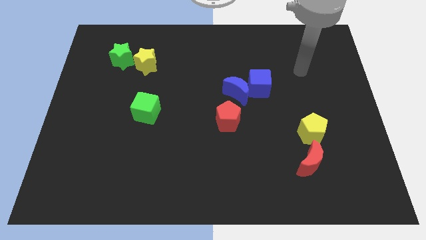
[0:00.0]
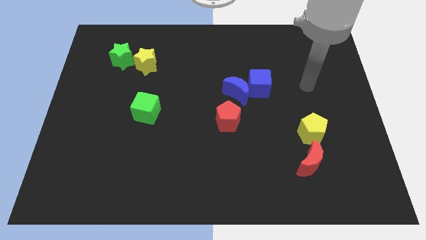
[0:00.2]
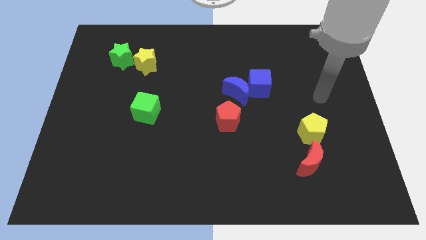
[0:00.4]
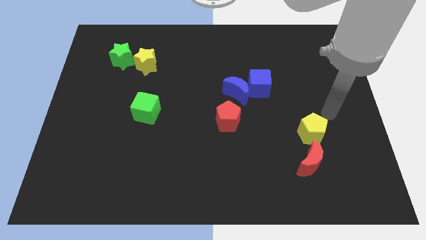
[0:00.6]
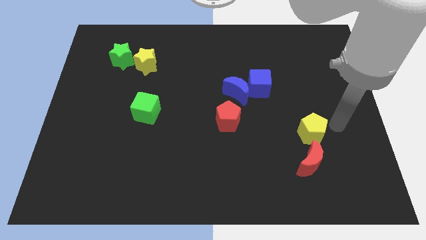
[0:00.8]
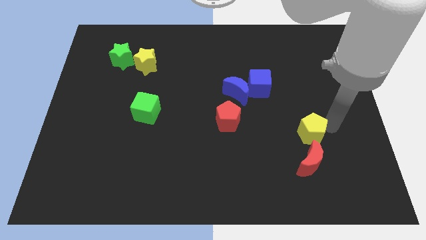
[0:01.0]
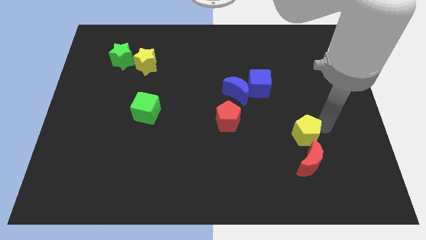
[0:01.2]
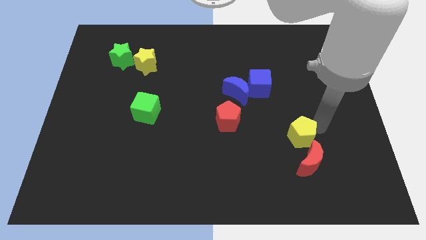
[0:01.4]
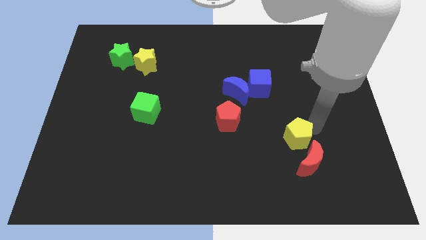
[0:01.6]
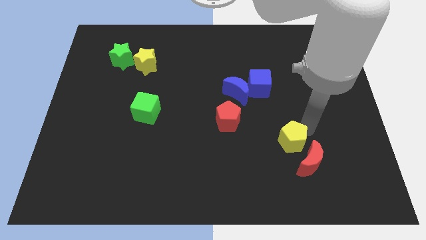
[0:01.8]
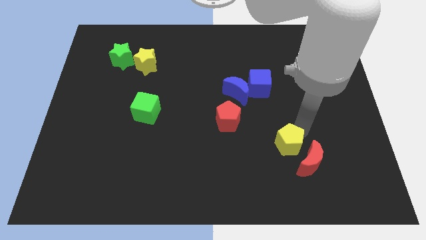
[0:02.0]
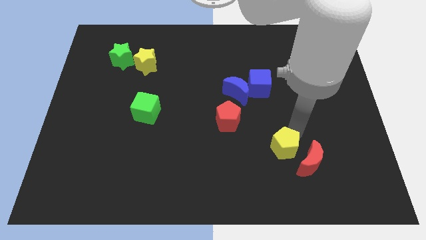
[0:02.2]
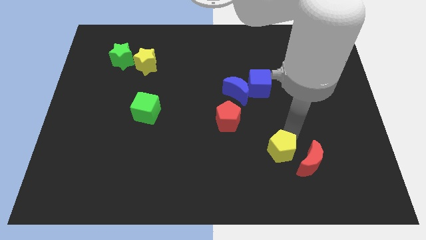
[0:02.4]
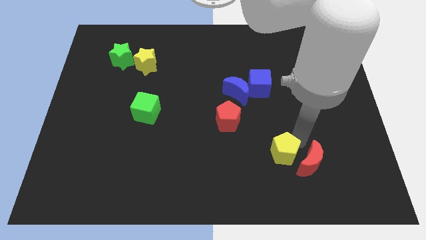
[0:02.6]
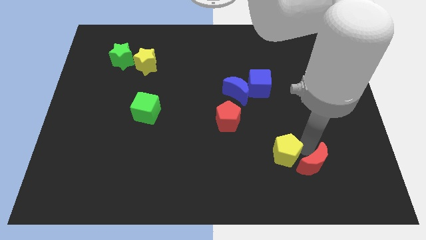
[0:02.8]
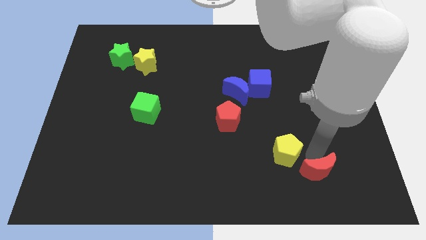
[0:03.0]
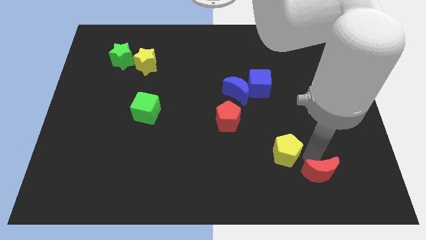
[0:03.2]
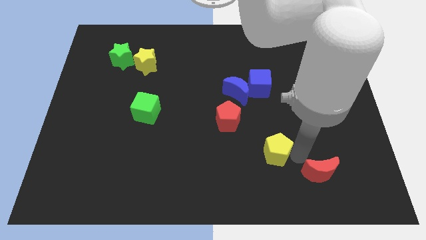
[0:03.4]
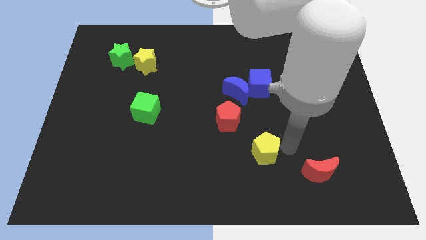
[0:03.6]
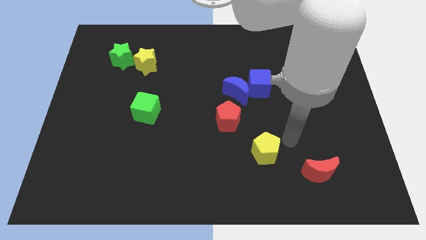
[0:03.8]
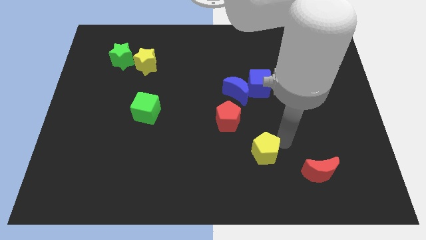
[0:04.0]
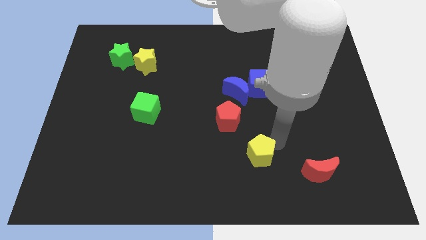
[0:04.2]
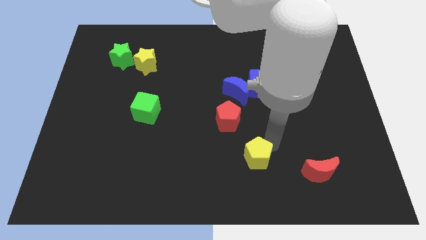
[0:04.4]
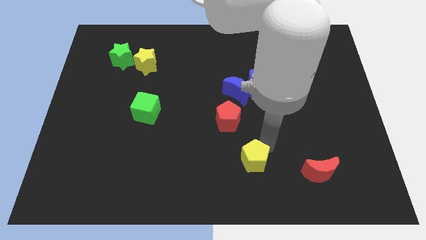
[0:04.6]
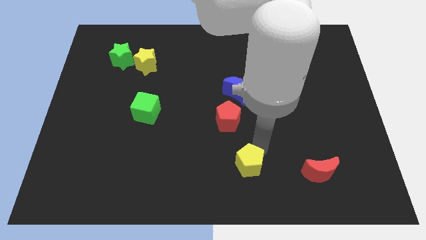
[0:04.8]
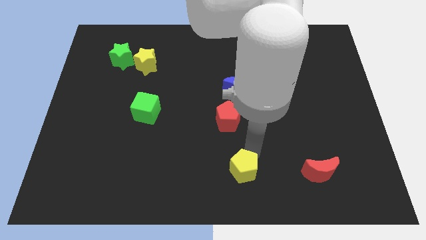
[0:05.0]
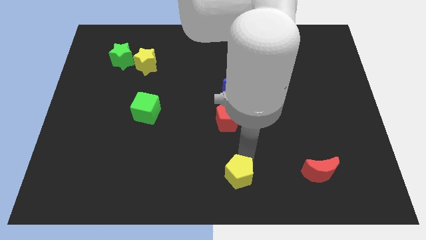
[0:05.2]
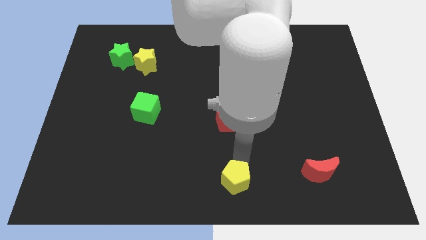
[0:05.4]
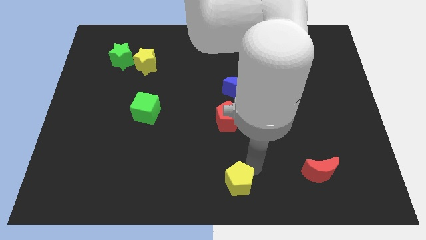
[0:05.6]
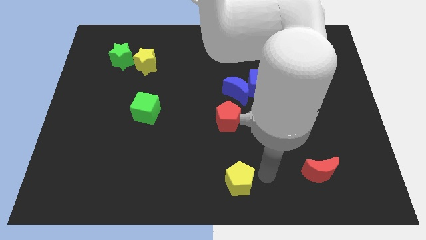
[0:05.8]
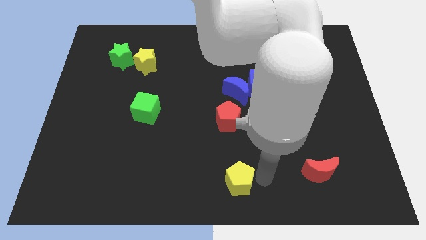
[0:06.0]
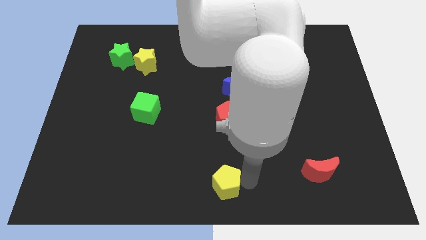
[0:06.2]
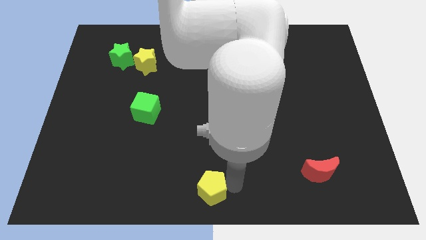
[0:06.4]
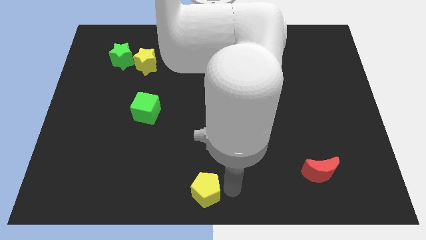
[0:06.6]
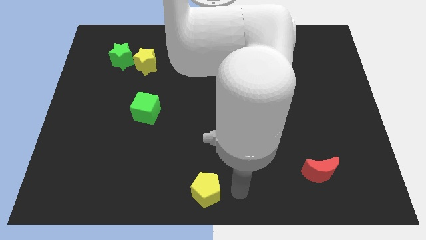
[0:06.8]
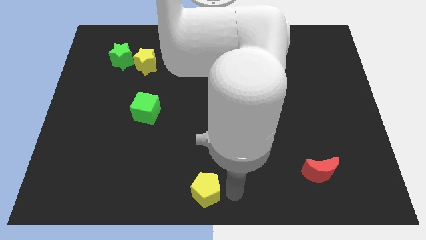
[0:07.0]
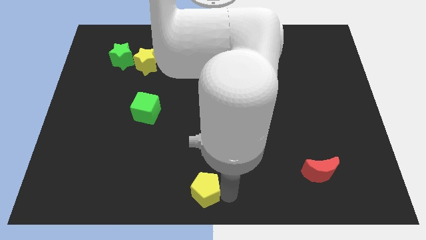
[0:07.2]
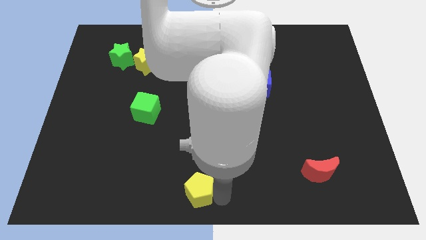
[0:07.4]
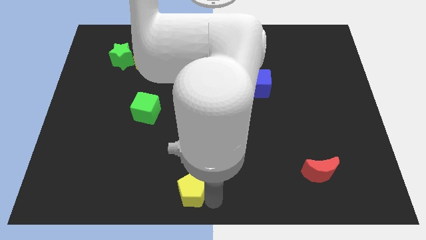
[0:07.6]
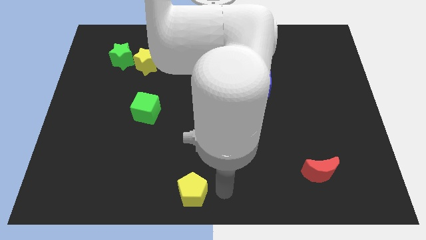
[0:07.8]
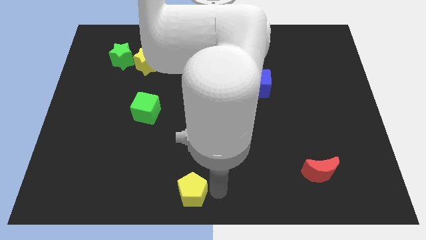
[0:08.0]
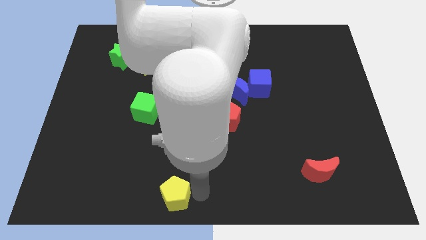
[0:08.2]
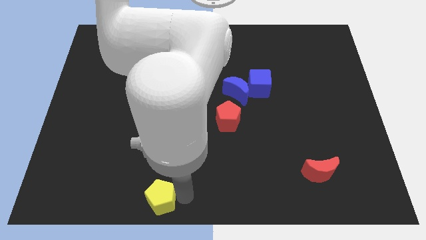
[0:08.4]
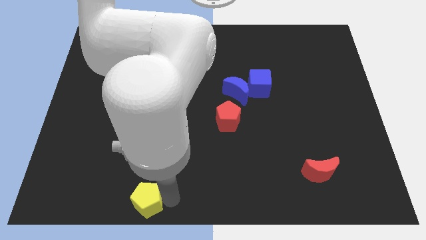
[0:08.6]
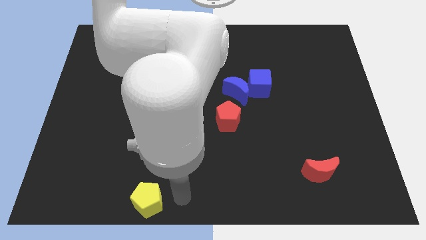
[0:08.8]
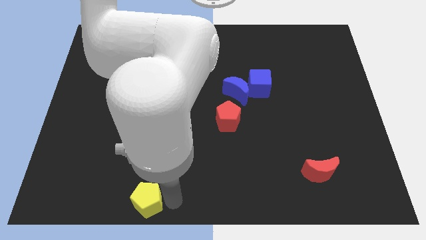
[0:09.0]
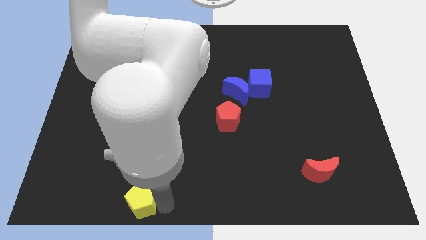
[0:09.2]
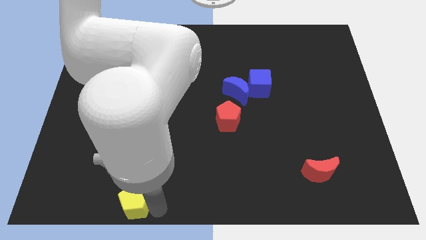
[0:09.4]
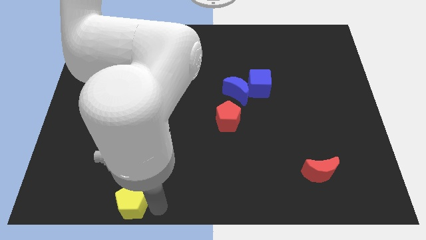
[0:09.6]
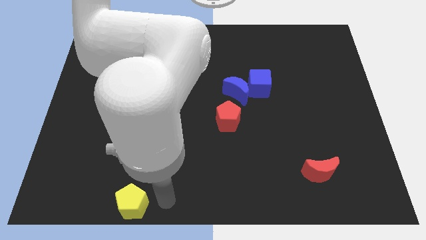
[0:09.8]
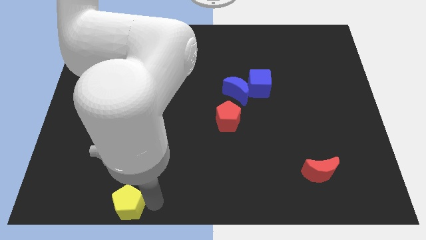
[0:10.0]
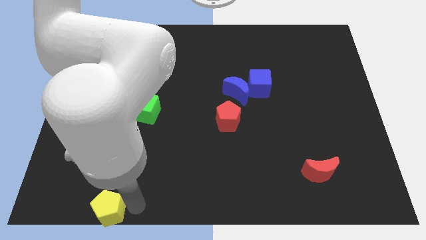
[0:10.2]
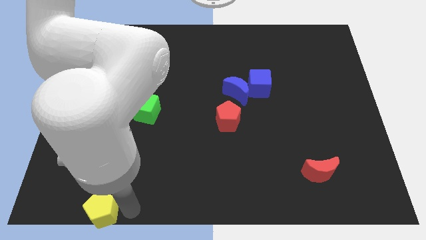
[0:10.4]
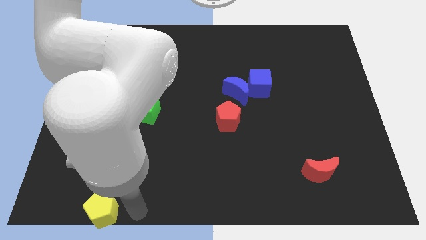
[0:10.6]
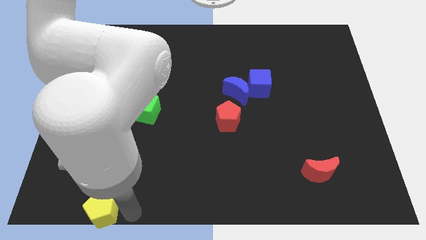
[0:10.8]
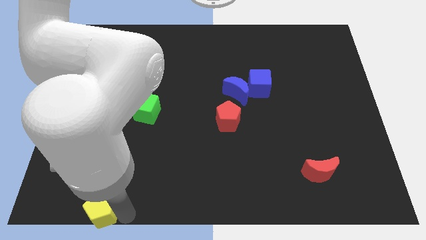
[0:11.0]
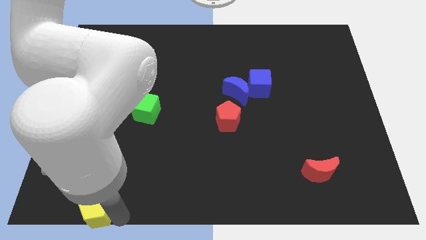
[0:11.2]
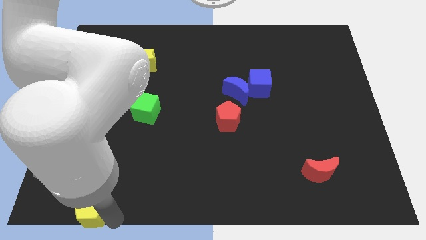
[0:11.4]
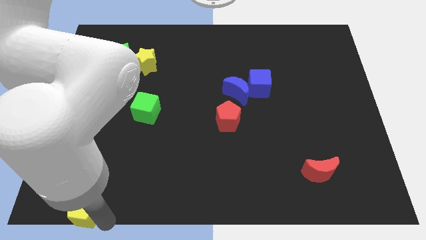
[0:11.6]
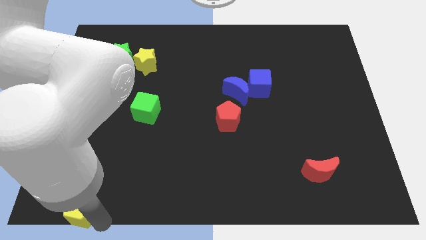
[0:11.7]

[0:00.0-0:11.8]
push the yellow pentagon to the bottom left
